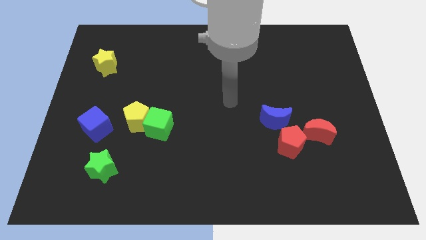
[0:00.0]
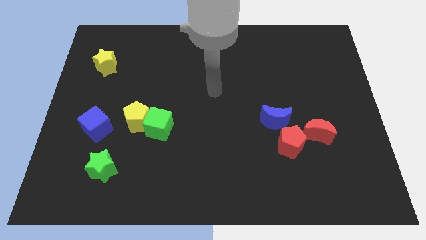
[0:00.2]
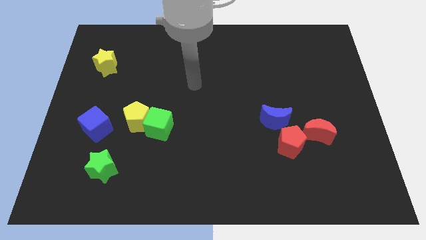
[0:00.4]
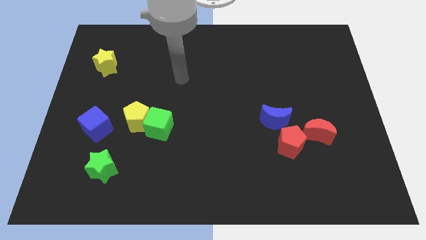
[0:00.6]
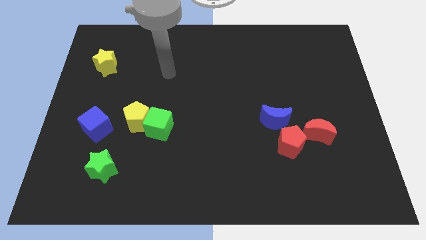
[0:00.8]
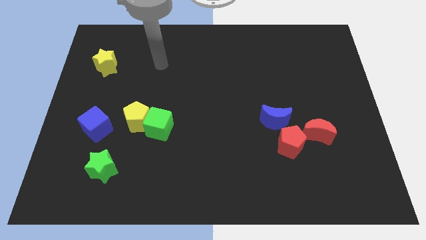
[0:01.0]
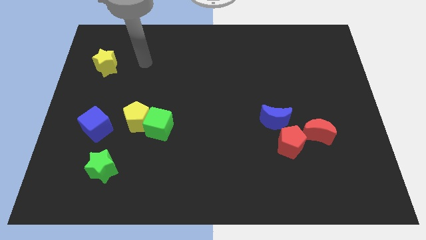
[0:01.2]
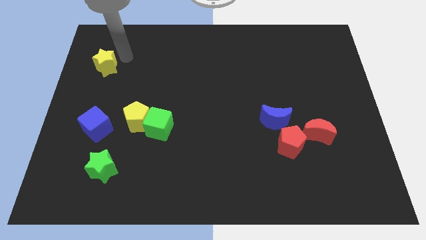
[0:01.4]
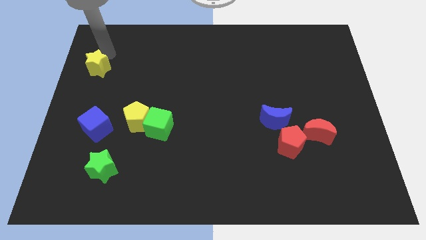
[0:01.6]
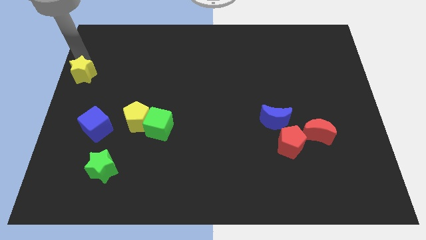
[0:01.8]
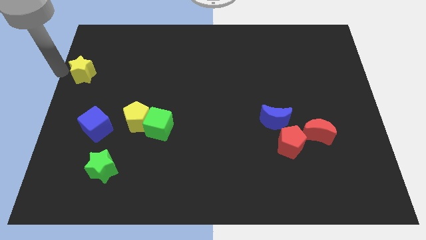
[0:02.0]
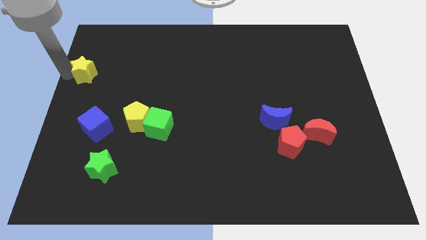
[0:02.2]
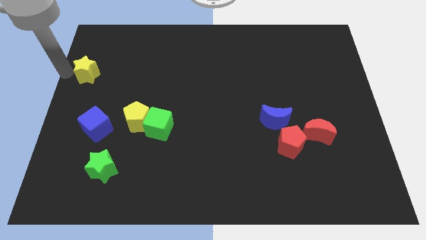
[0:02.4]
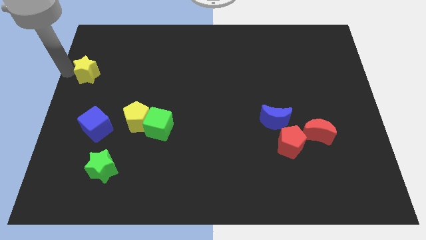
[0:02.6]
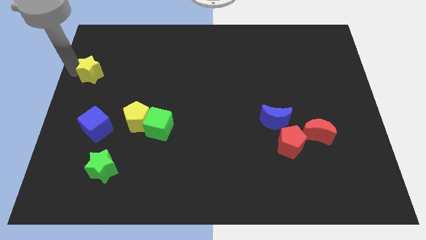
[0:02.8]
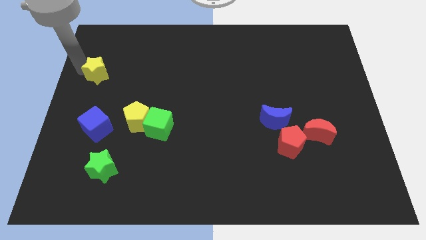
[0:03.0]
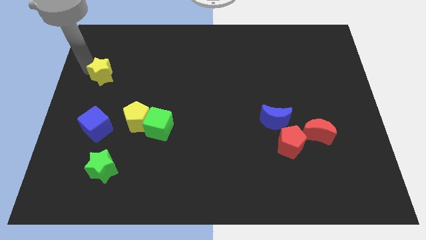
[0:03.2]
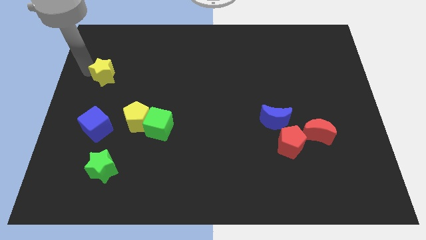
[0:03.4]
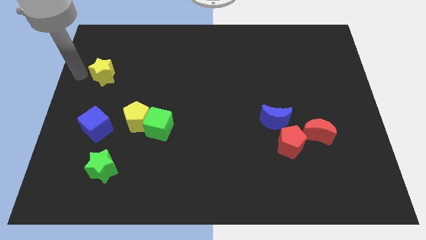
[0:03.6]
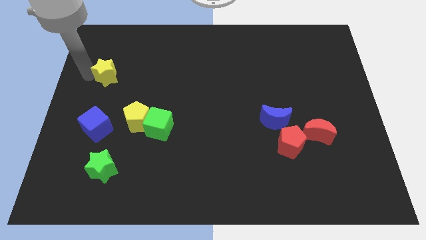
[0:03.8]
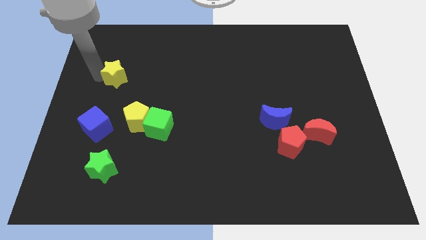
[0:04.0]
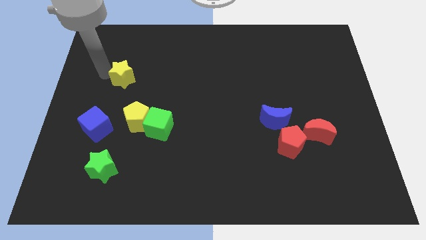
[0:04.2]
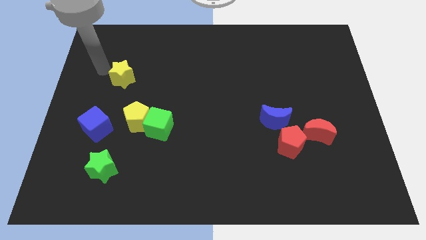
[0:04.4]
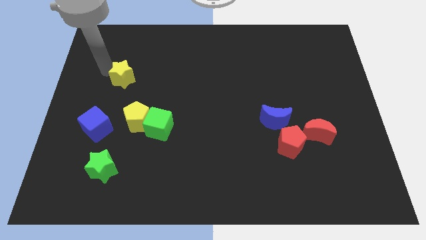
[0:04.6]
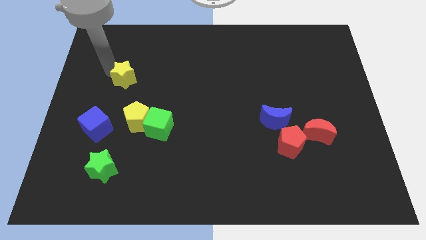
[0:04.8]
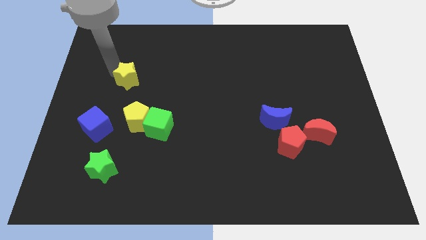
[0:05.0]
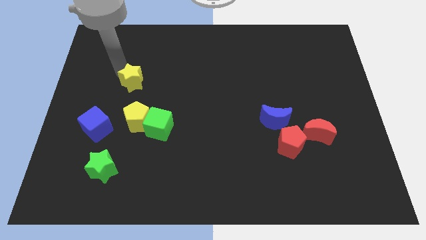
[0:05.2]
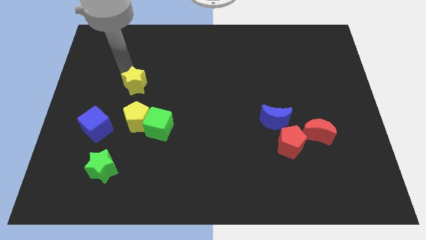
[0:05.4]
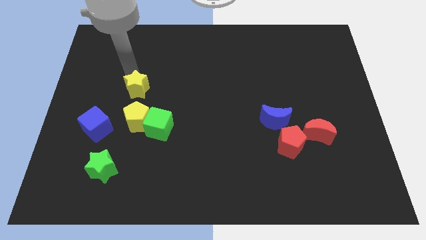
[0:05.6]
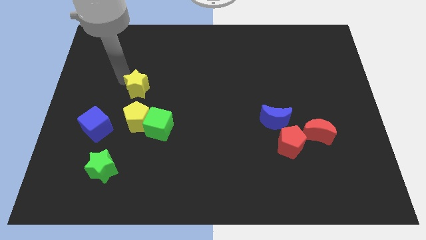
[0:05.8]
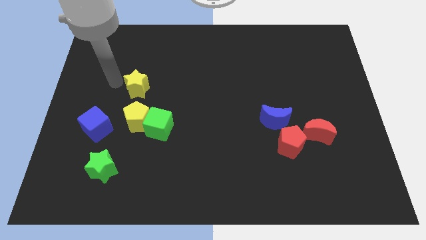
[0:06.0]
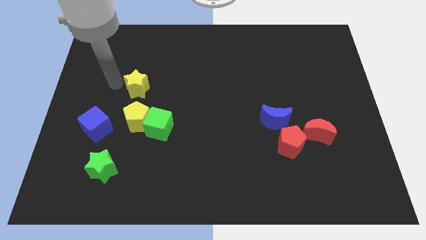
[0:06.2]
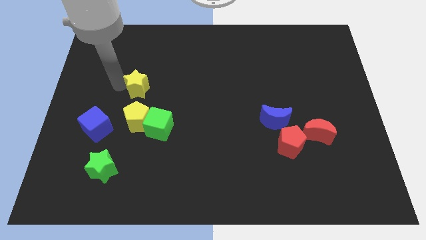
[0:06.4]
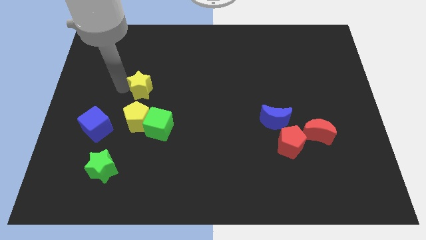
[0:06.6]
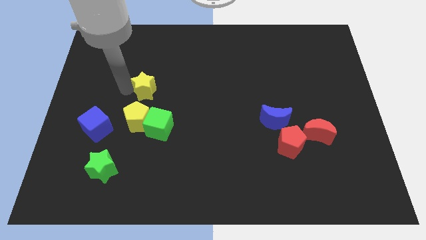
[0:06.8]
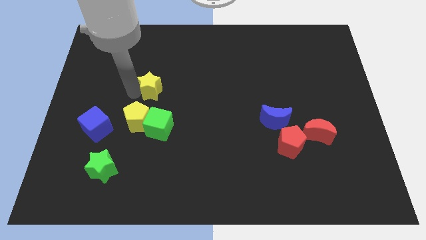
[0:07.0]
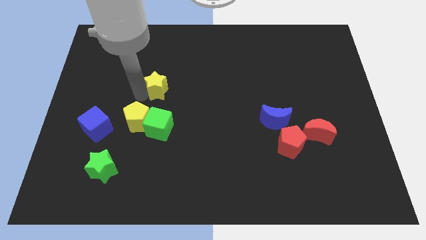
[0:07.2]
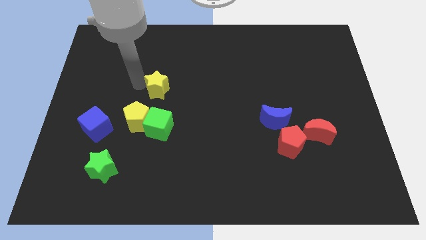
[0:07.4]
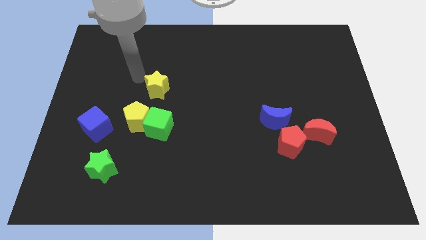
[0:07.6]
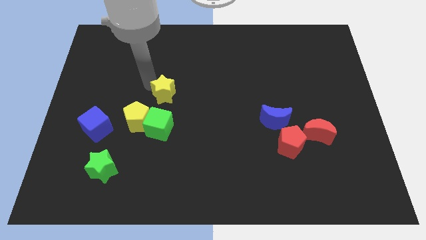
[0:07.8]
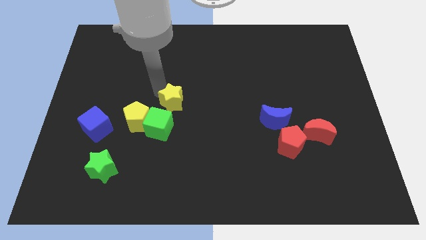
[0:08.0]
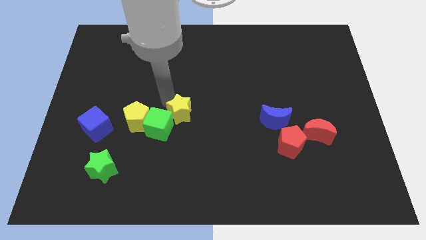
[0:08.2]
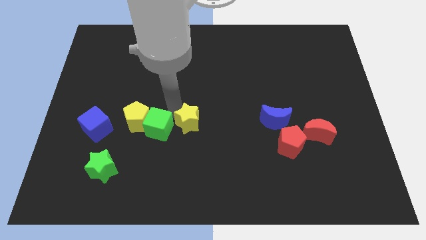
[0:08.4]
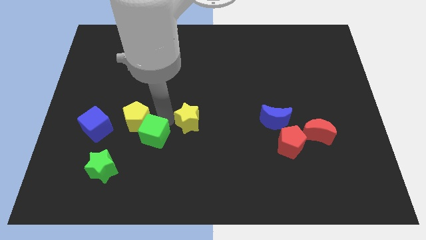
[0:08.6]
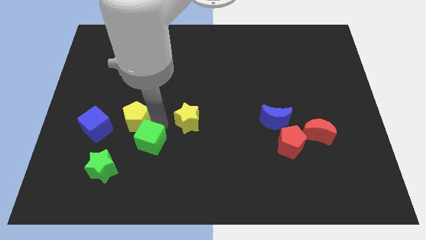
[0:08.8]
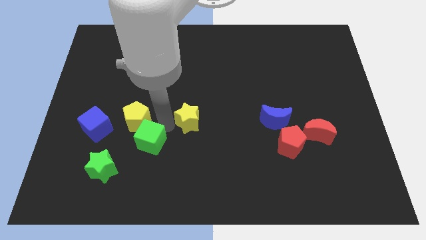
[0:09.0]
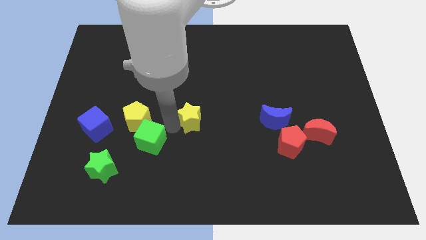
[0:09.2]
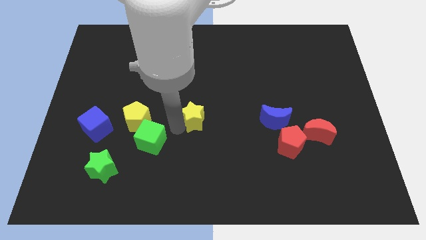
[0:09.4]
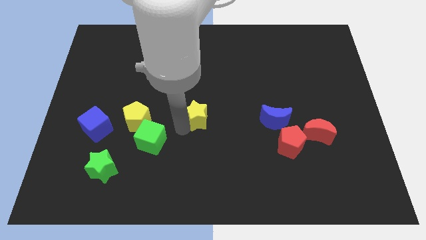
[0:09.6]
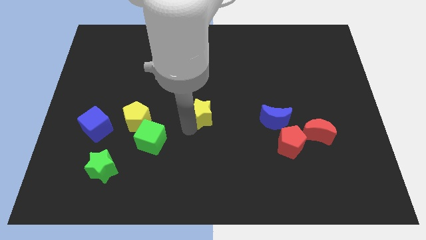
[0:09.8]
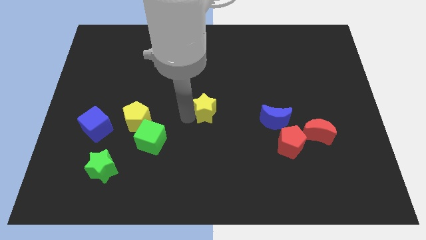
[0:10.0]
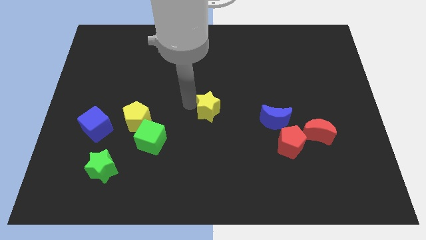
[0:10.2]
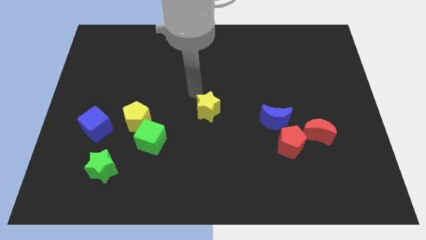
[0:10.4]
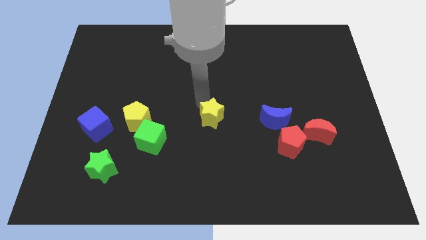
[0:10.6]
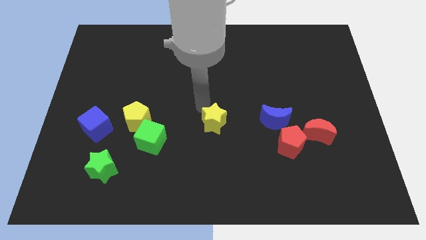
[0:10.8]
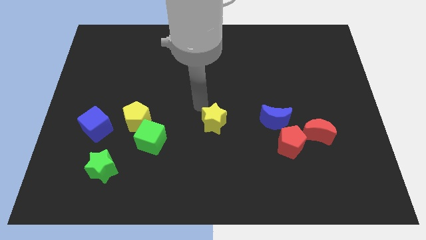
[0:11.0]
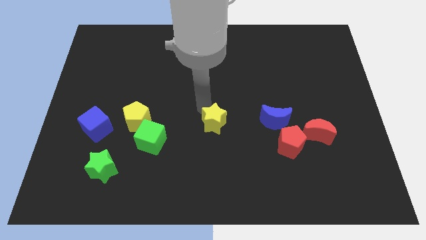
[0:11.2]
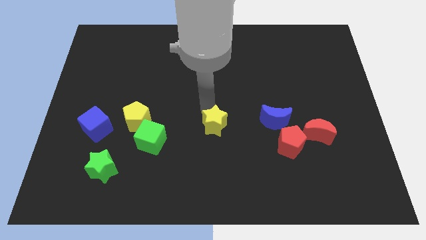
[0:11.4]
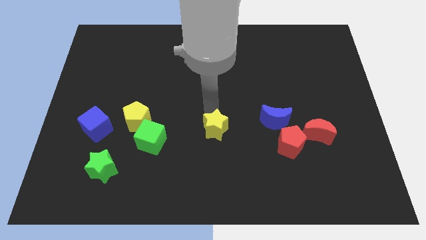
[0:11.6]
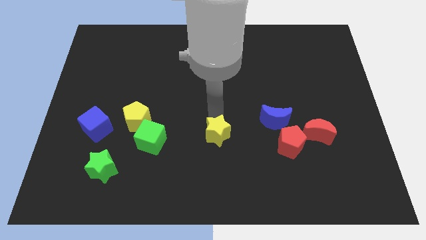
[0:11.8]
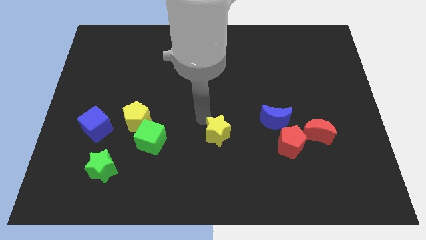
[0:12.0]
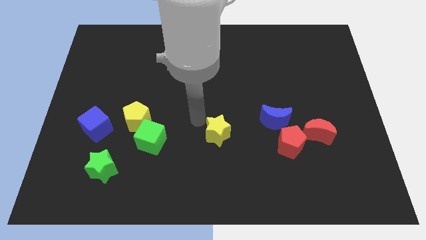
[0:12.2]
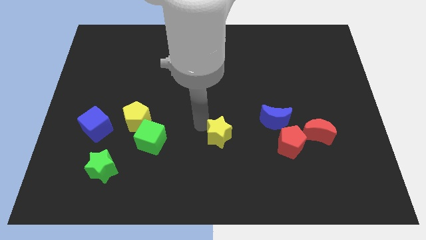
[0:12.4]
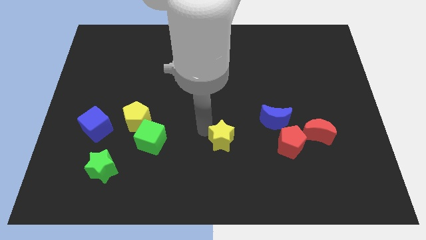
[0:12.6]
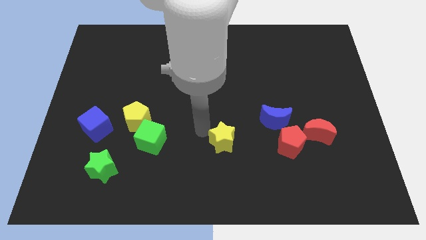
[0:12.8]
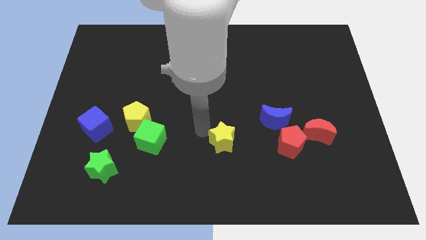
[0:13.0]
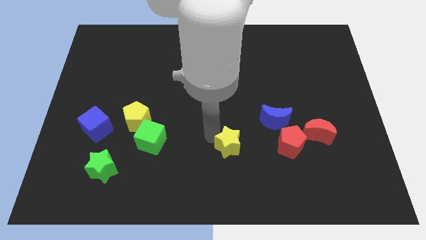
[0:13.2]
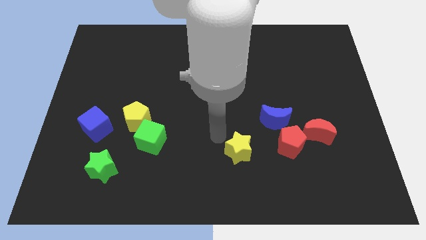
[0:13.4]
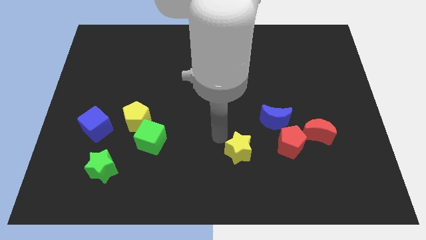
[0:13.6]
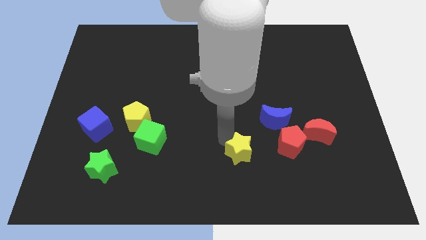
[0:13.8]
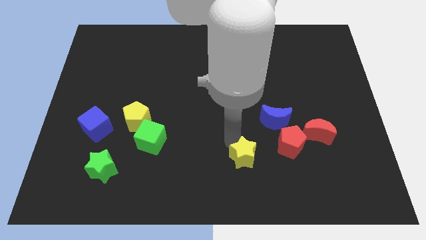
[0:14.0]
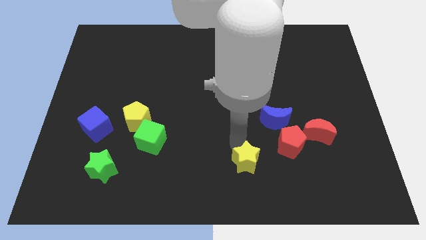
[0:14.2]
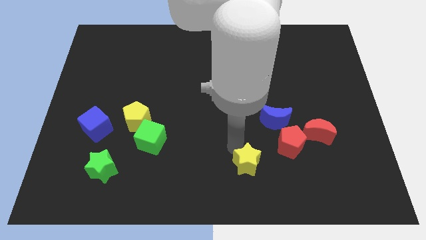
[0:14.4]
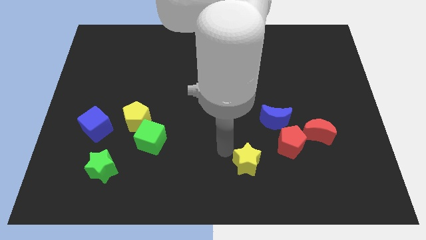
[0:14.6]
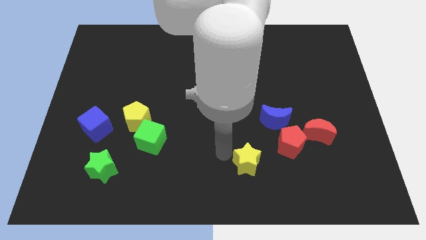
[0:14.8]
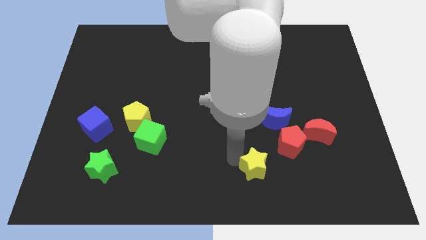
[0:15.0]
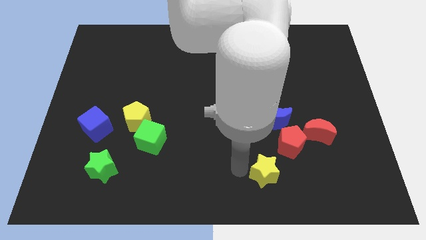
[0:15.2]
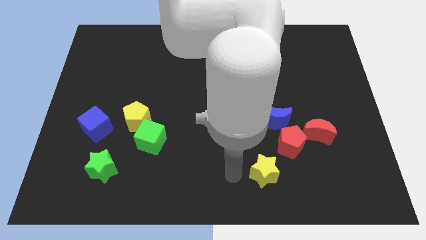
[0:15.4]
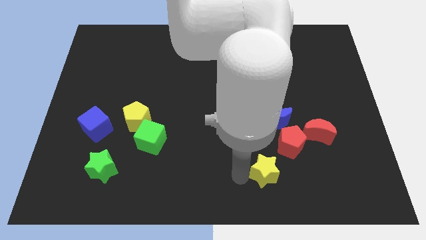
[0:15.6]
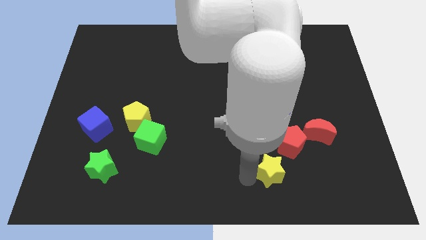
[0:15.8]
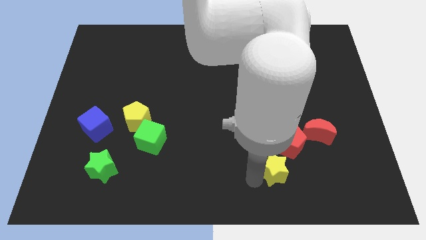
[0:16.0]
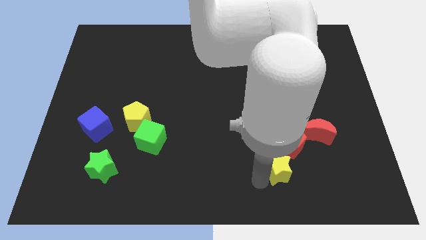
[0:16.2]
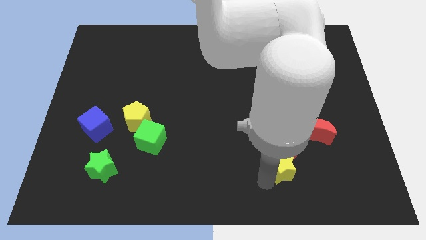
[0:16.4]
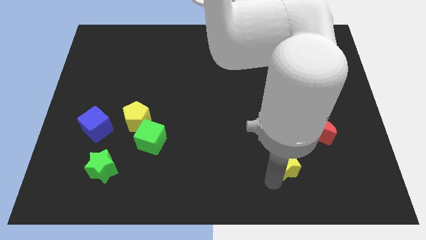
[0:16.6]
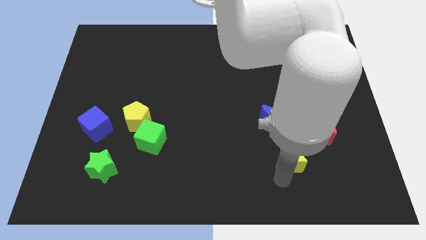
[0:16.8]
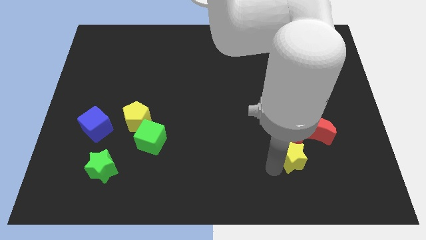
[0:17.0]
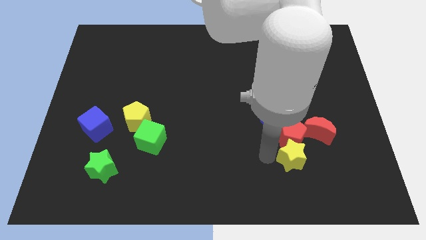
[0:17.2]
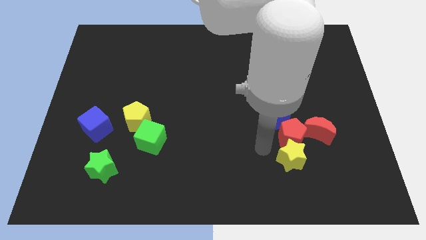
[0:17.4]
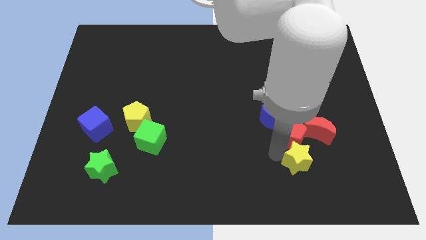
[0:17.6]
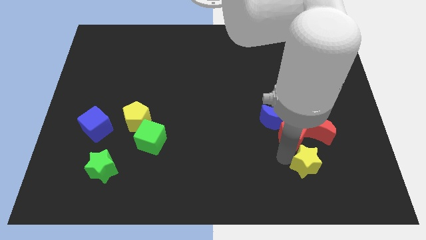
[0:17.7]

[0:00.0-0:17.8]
put the yellow star below the red moon
